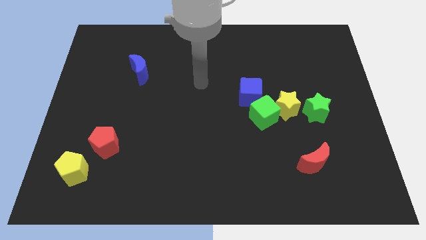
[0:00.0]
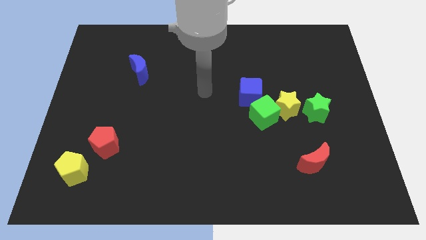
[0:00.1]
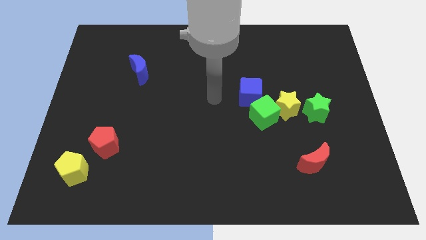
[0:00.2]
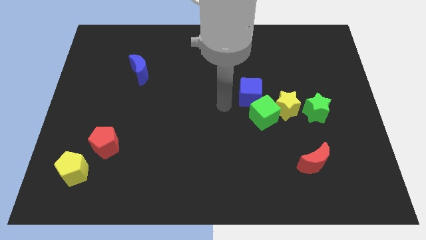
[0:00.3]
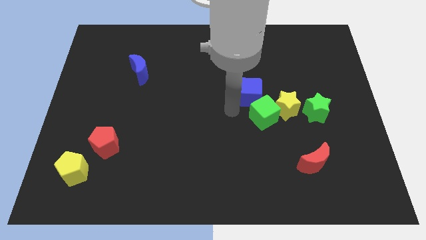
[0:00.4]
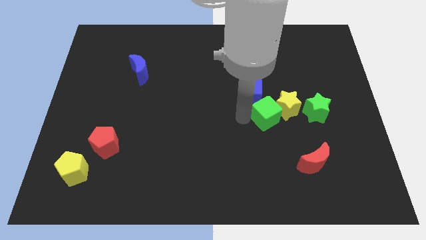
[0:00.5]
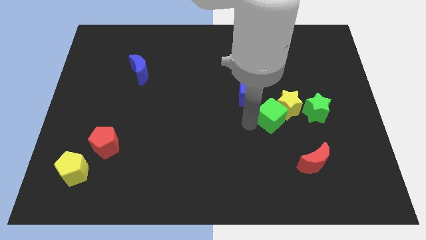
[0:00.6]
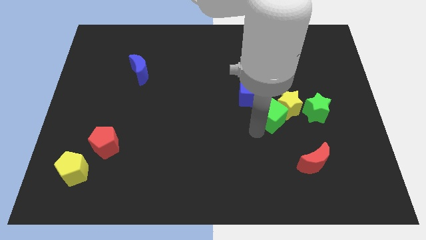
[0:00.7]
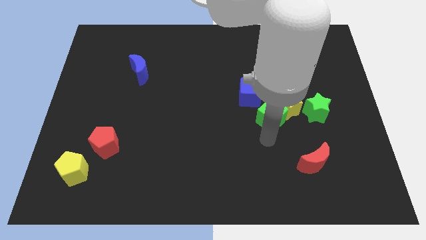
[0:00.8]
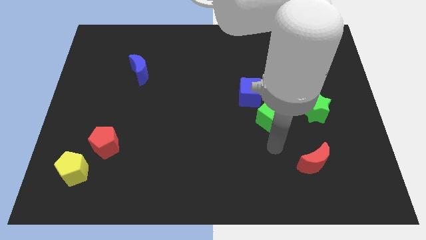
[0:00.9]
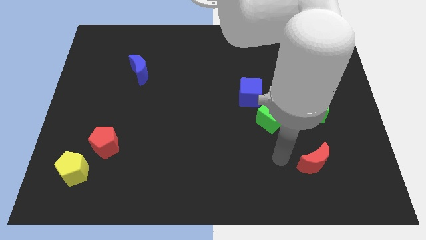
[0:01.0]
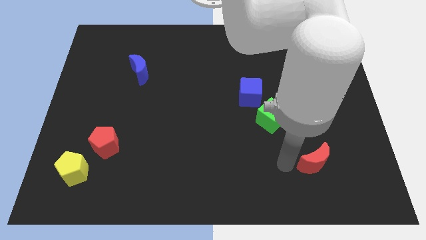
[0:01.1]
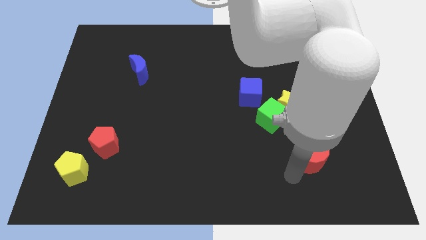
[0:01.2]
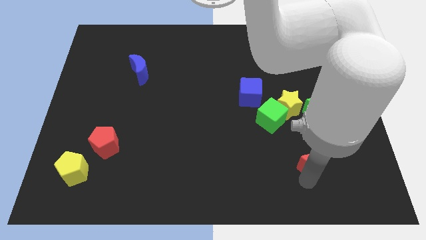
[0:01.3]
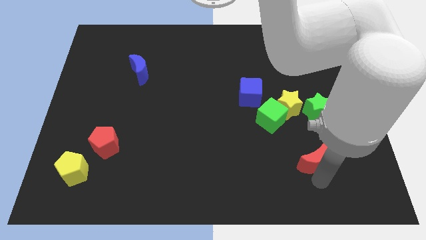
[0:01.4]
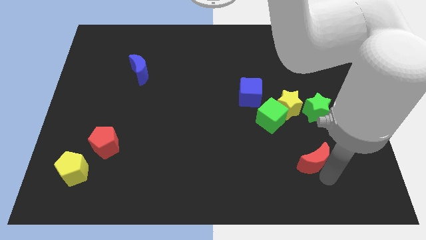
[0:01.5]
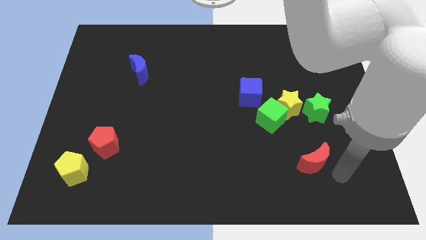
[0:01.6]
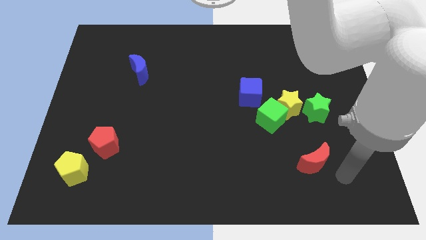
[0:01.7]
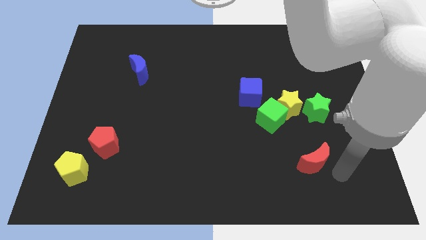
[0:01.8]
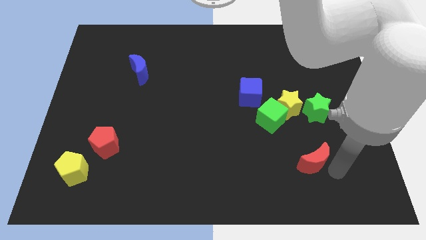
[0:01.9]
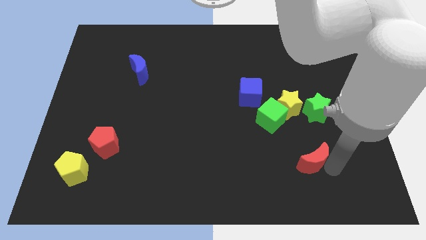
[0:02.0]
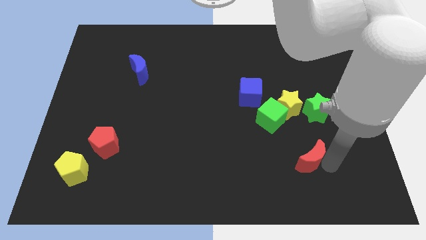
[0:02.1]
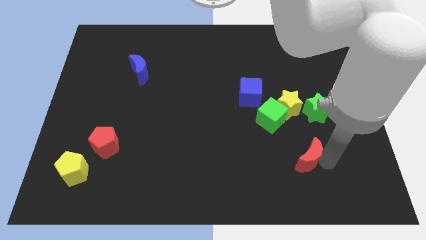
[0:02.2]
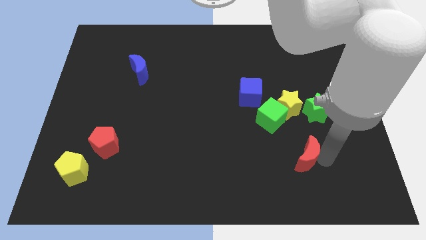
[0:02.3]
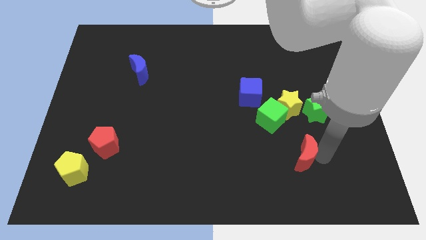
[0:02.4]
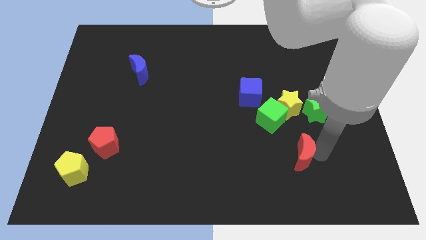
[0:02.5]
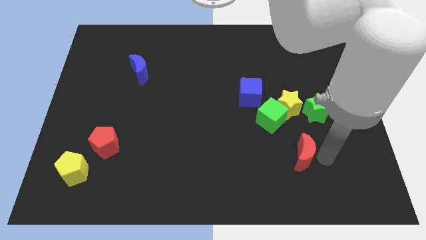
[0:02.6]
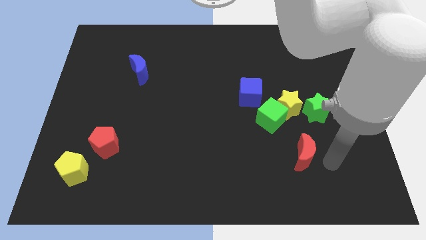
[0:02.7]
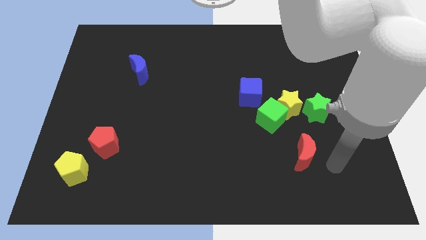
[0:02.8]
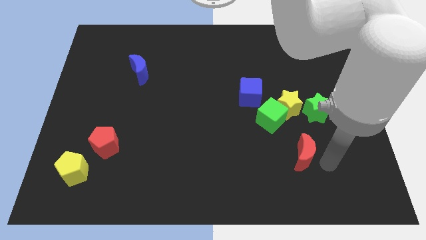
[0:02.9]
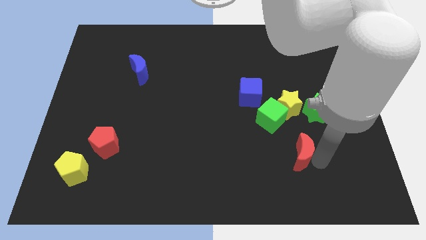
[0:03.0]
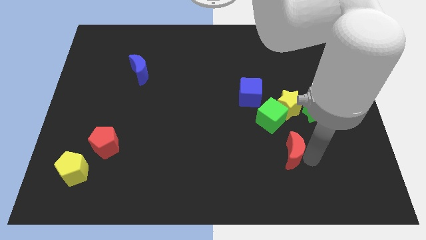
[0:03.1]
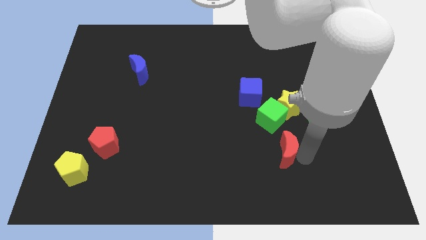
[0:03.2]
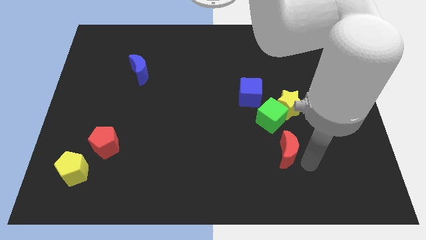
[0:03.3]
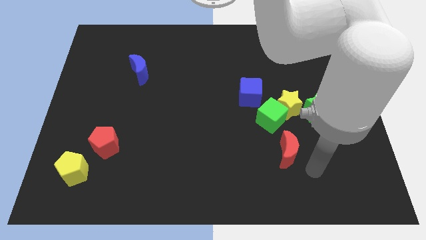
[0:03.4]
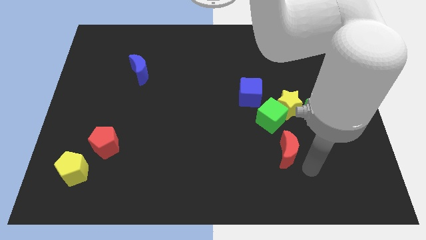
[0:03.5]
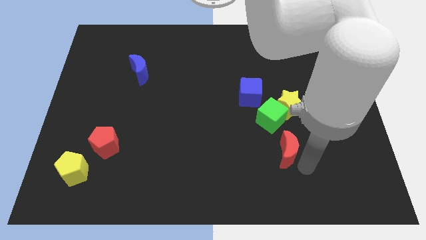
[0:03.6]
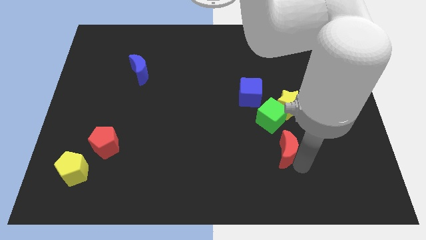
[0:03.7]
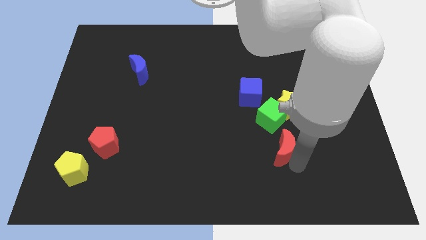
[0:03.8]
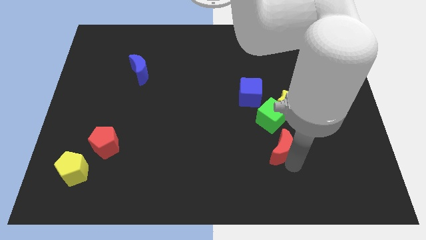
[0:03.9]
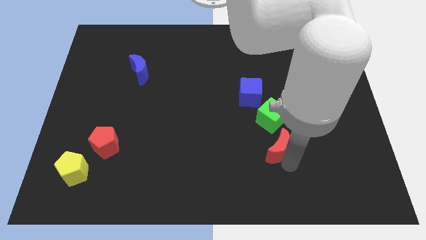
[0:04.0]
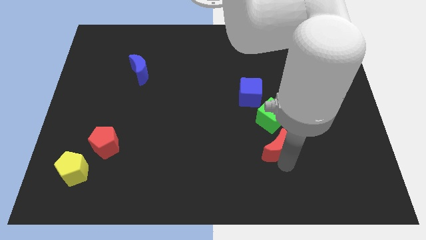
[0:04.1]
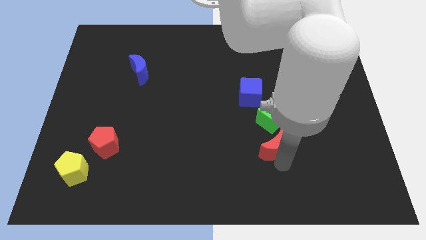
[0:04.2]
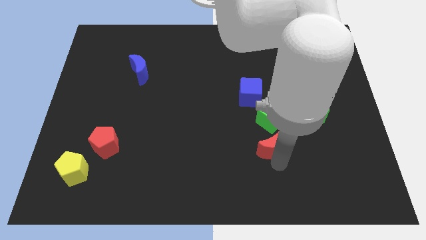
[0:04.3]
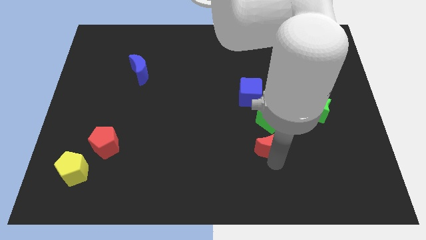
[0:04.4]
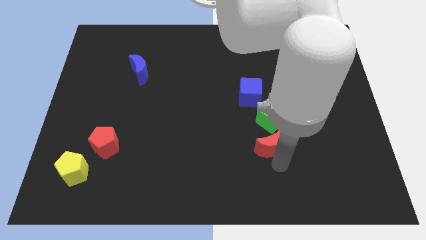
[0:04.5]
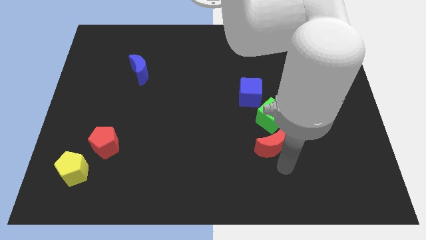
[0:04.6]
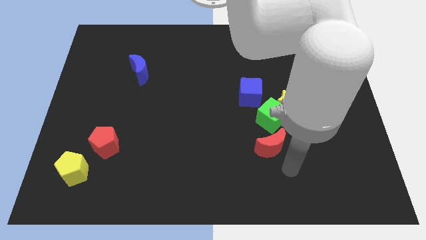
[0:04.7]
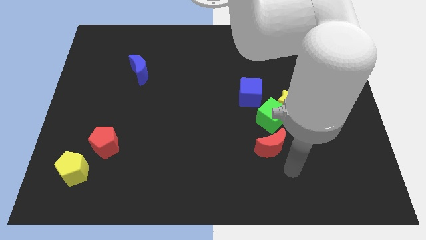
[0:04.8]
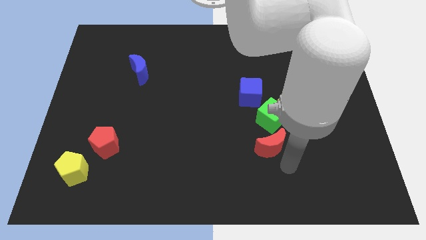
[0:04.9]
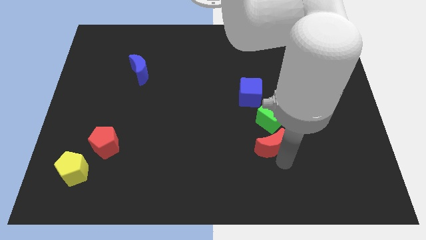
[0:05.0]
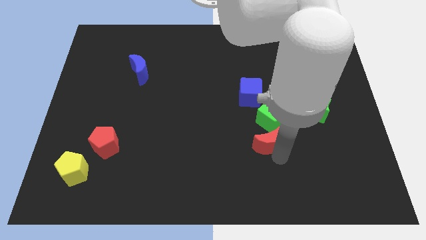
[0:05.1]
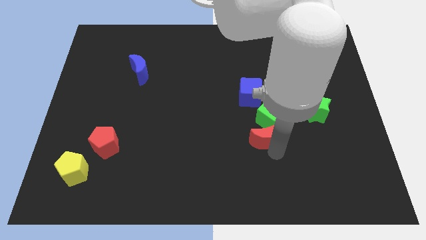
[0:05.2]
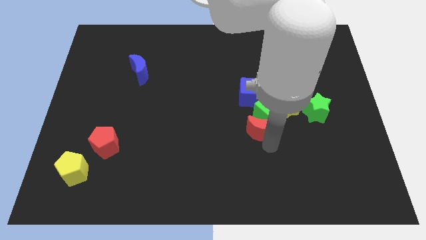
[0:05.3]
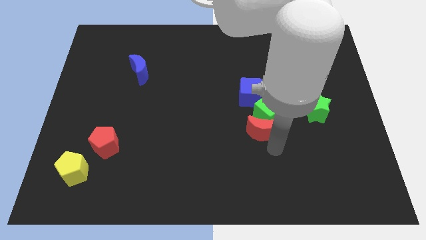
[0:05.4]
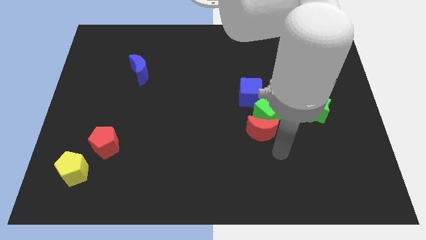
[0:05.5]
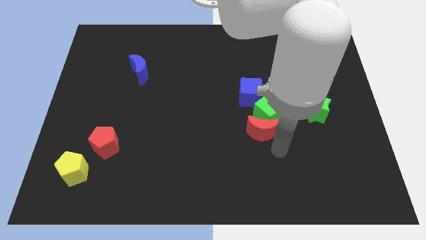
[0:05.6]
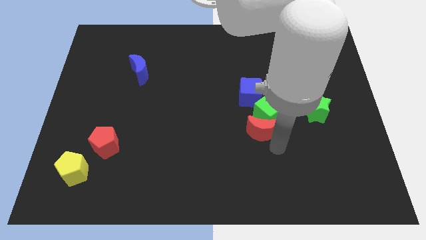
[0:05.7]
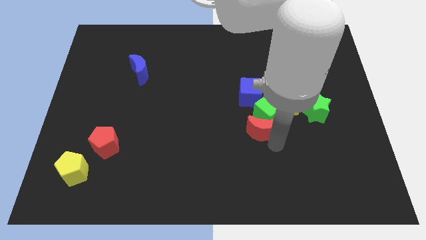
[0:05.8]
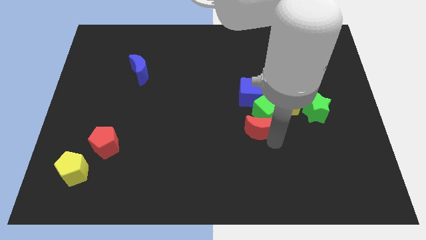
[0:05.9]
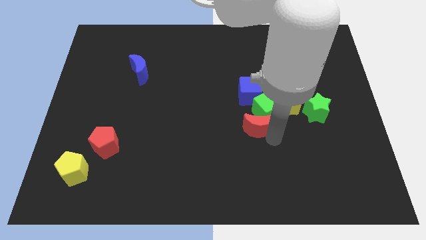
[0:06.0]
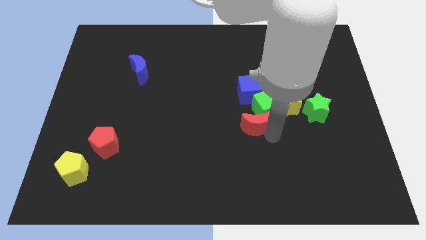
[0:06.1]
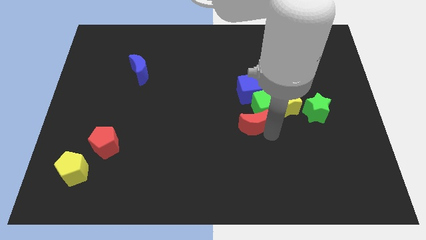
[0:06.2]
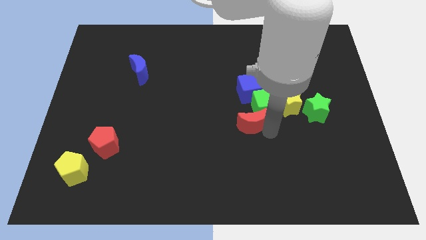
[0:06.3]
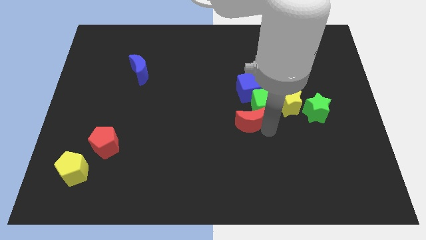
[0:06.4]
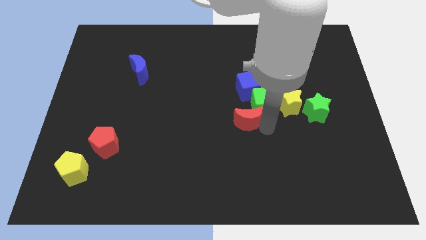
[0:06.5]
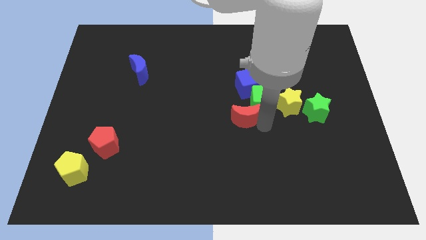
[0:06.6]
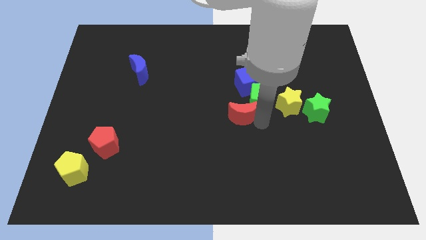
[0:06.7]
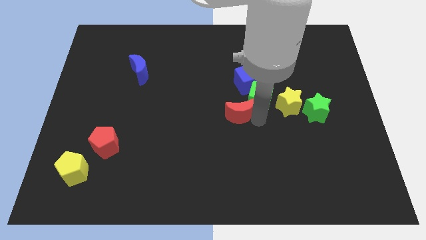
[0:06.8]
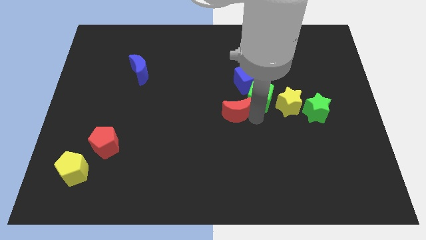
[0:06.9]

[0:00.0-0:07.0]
push the red moon upwards and to the left diagonally

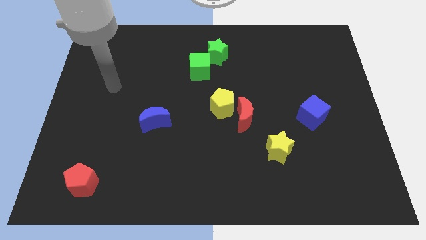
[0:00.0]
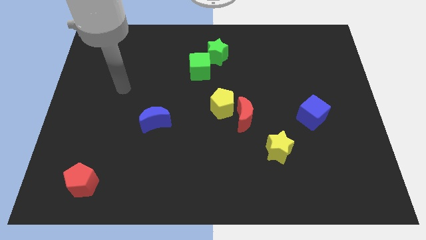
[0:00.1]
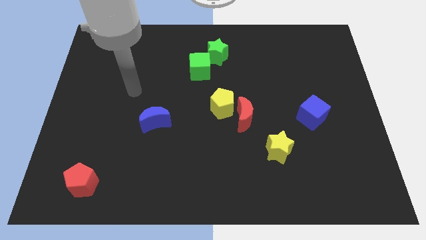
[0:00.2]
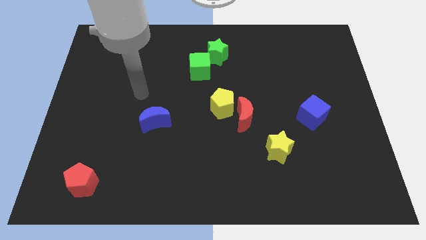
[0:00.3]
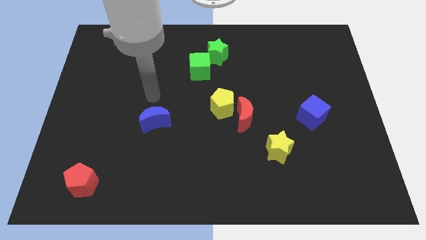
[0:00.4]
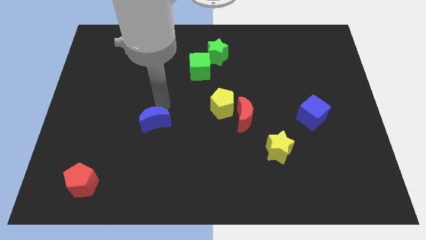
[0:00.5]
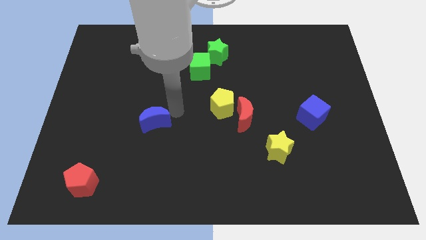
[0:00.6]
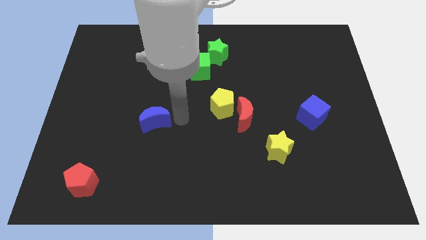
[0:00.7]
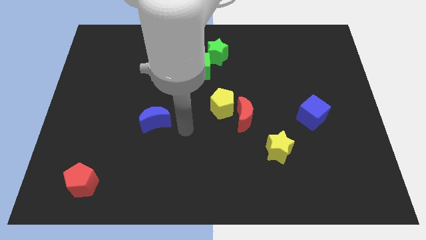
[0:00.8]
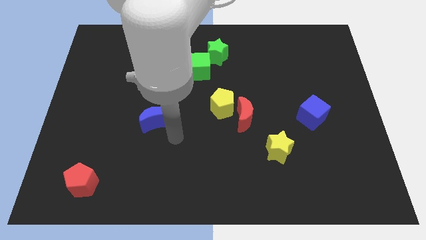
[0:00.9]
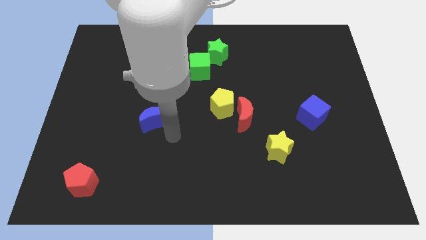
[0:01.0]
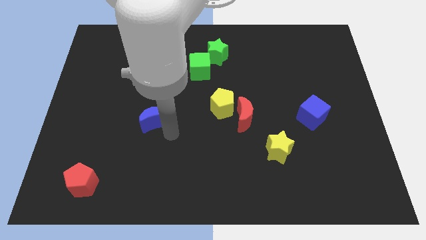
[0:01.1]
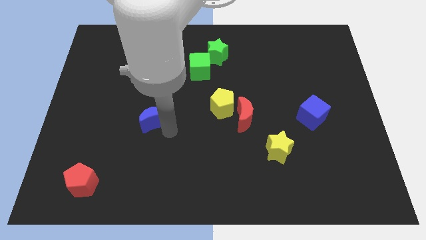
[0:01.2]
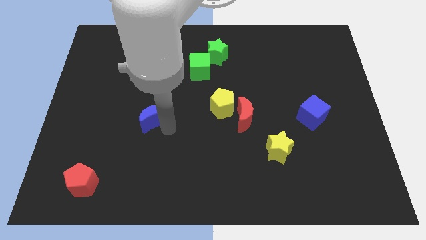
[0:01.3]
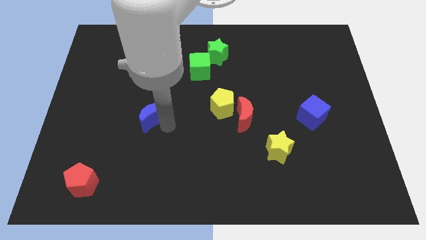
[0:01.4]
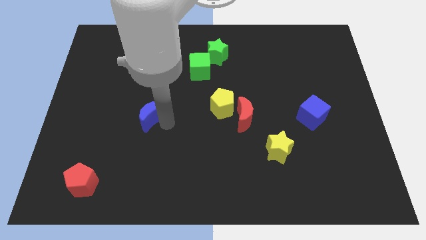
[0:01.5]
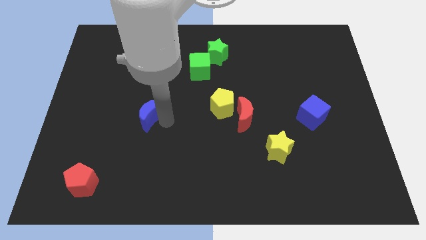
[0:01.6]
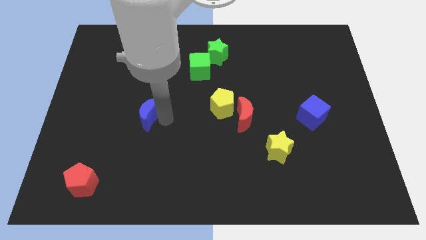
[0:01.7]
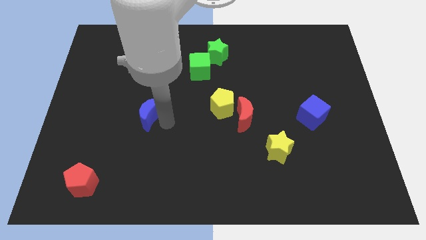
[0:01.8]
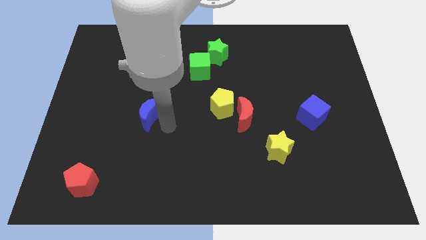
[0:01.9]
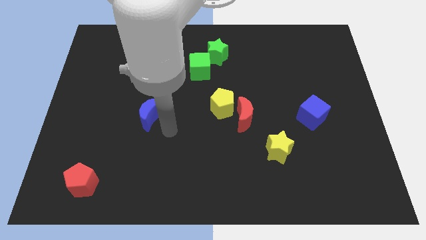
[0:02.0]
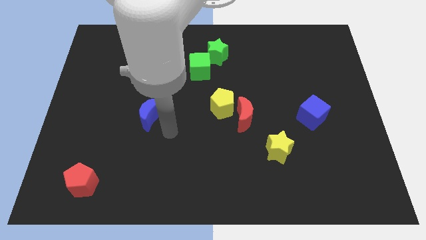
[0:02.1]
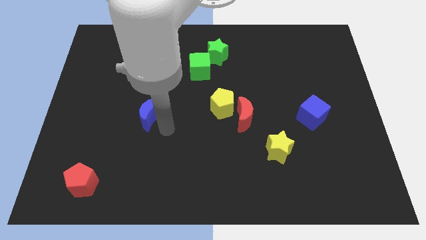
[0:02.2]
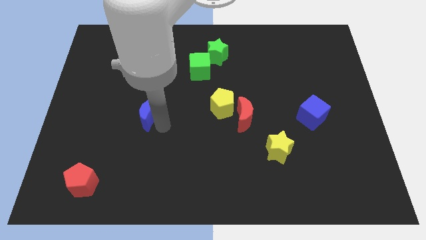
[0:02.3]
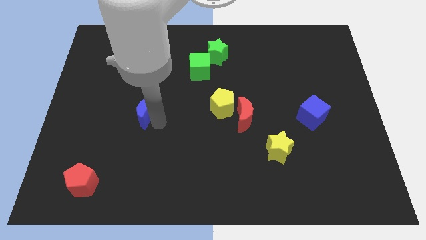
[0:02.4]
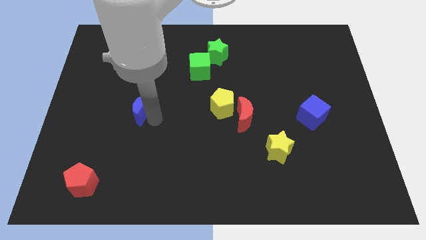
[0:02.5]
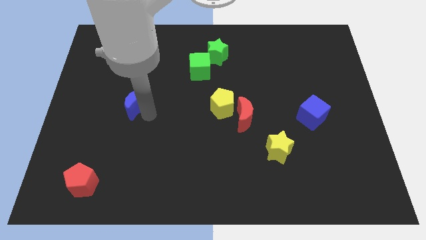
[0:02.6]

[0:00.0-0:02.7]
slightly slide the blue moon upwards and then to the left
